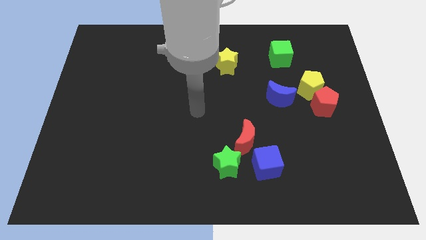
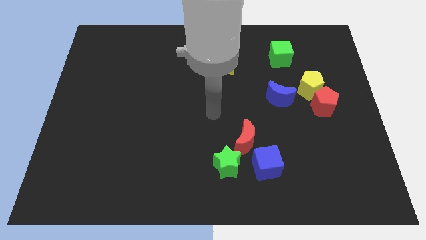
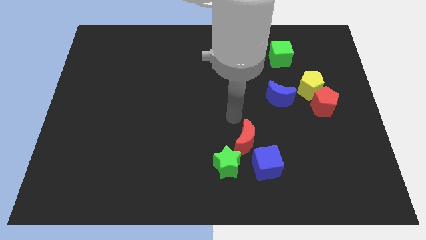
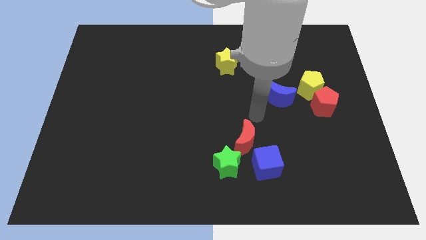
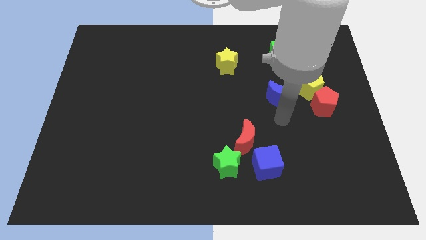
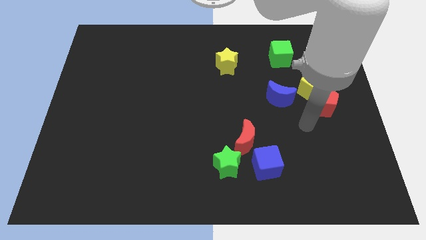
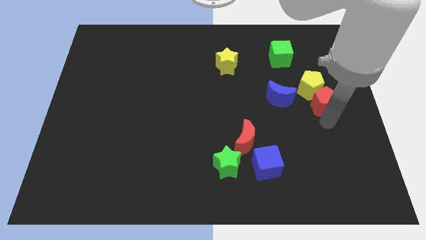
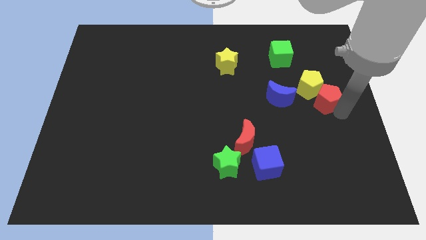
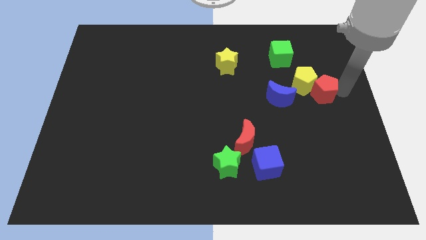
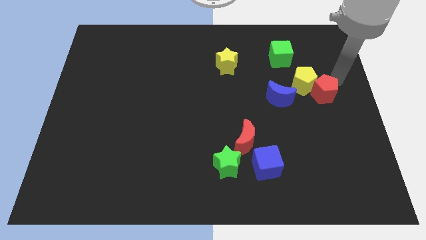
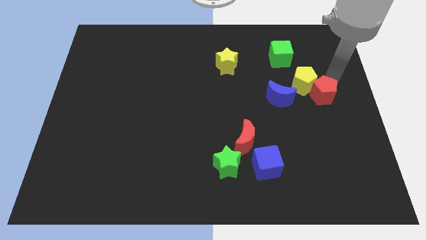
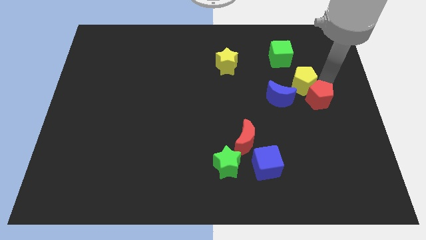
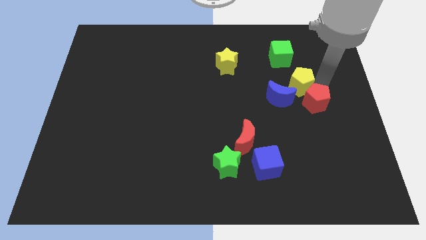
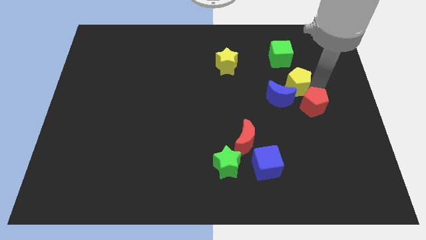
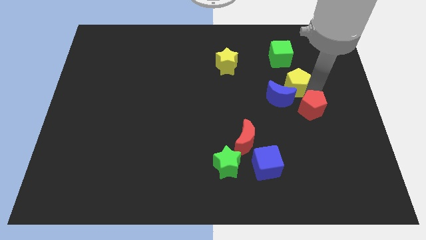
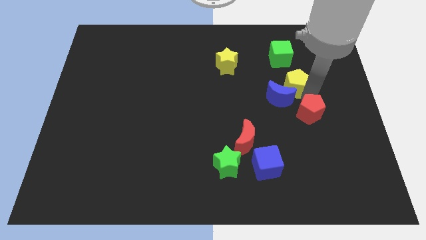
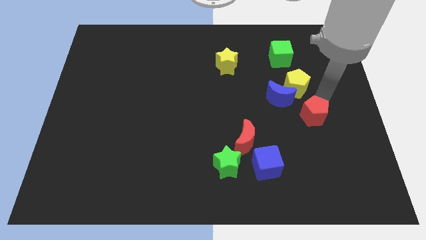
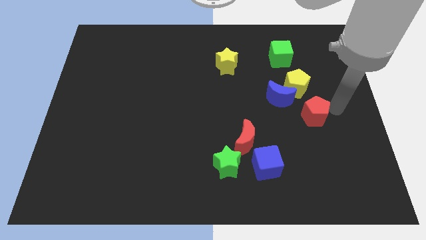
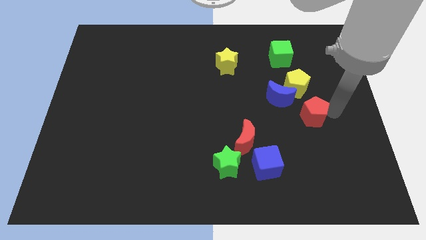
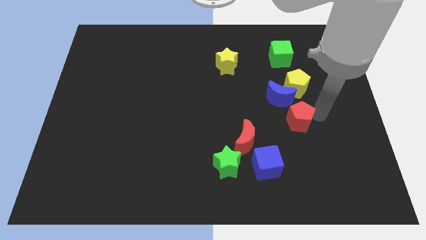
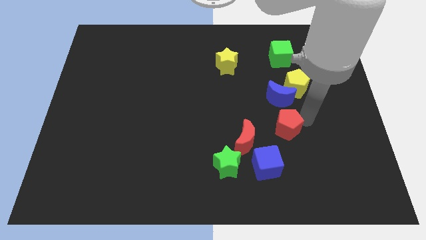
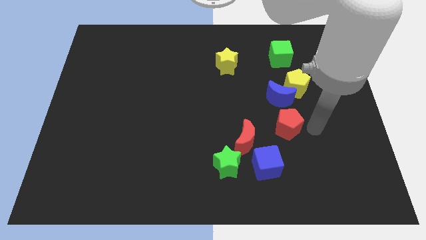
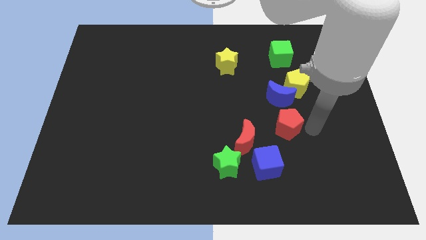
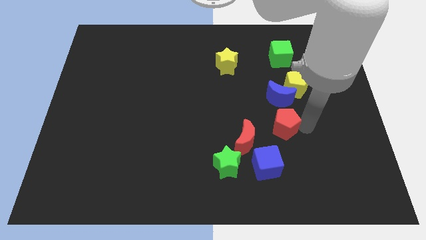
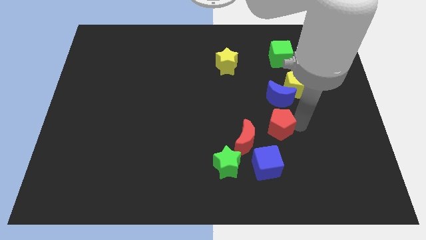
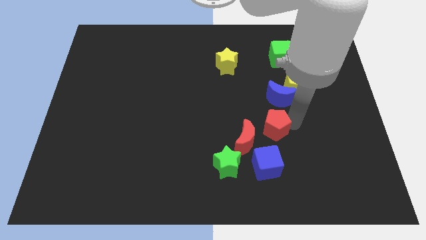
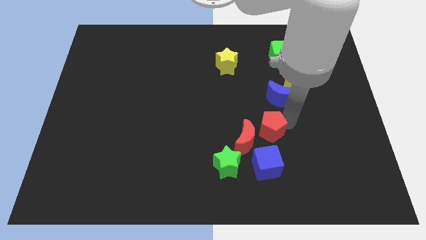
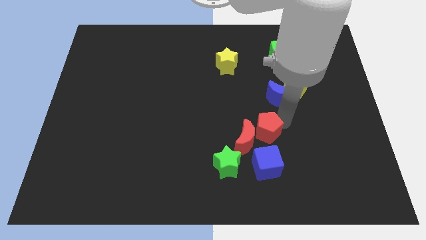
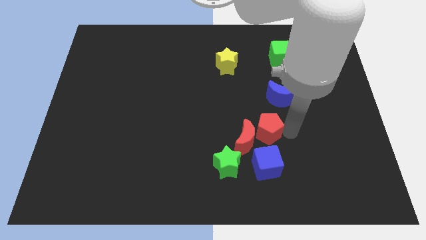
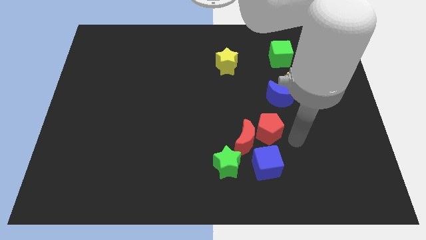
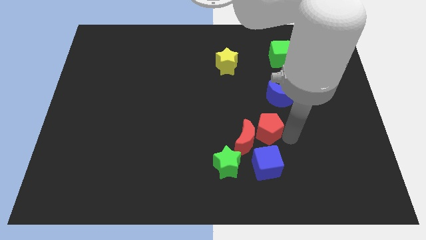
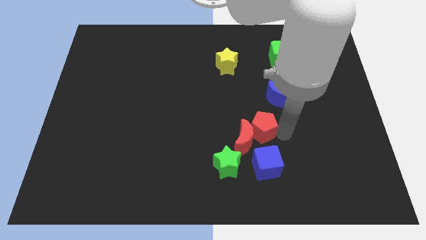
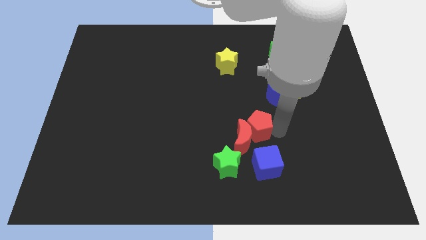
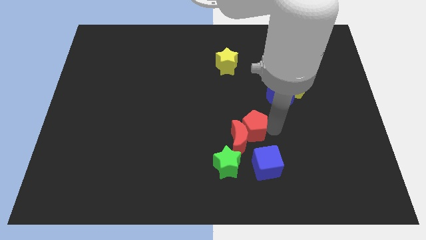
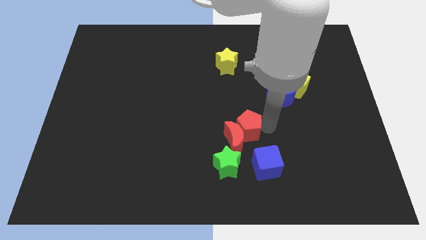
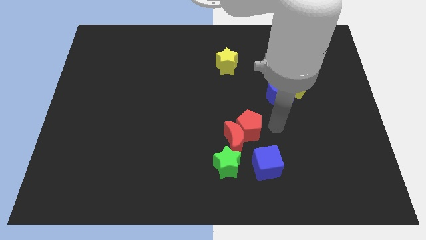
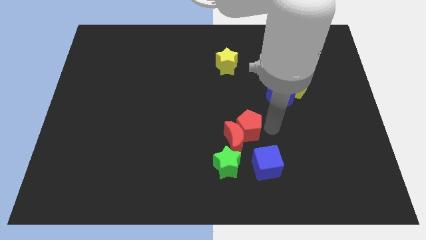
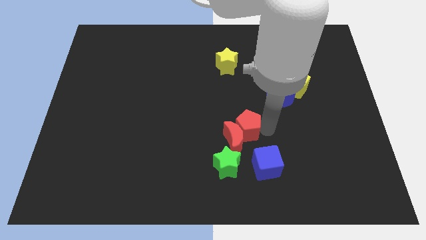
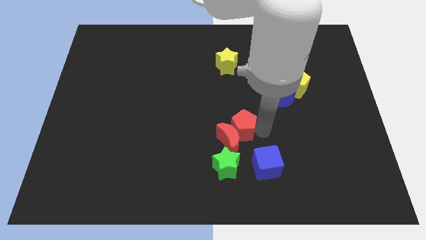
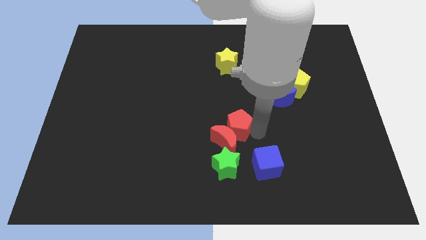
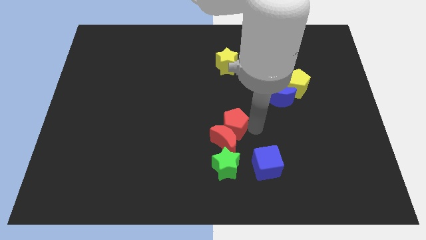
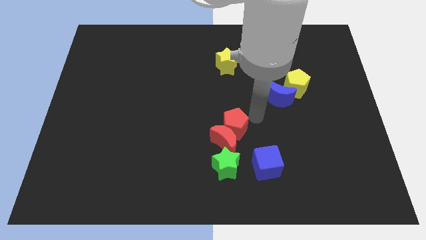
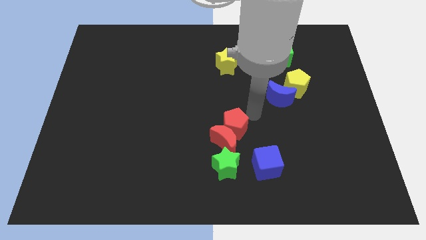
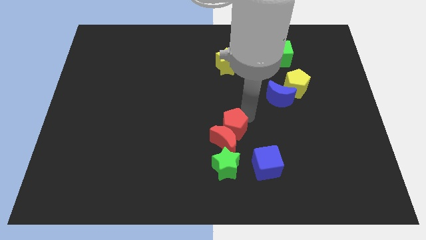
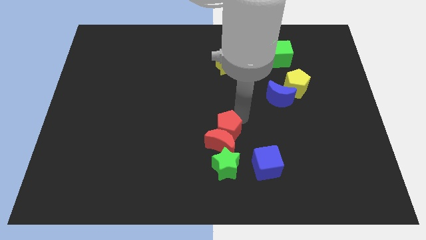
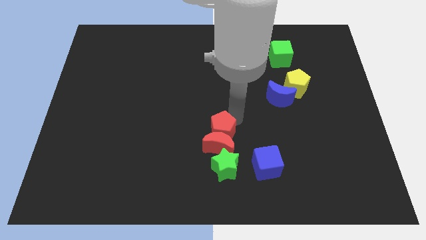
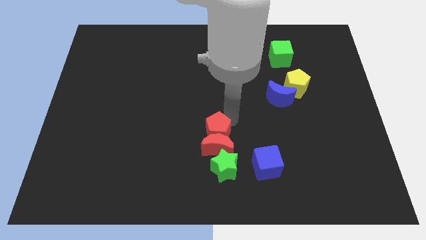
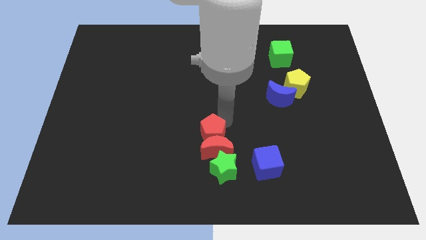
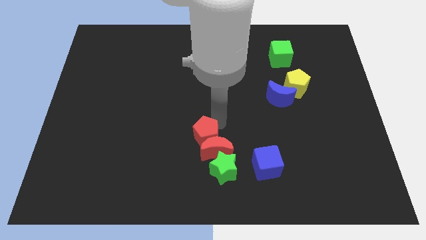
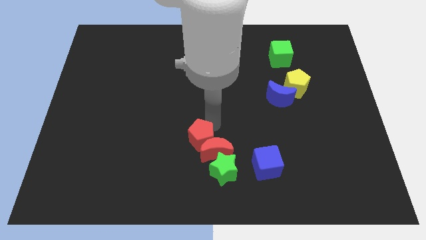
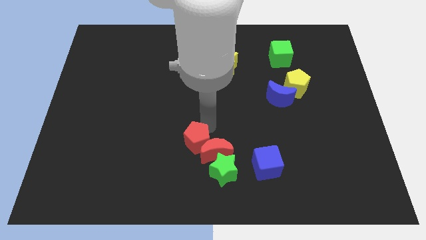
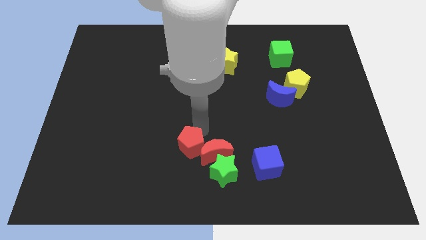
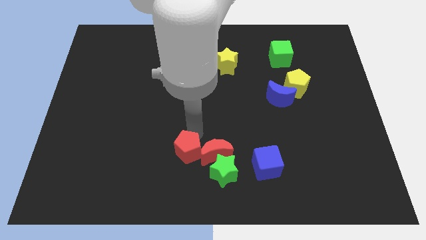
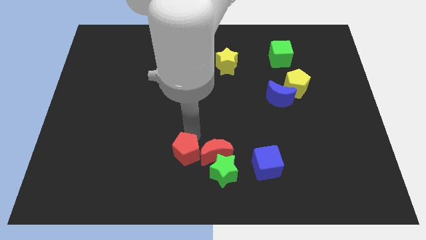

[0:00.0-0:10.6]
push the red pentagon to the left of the green star

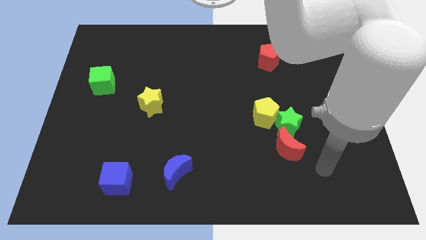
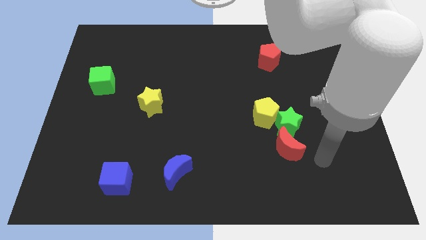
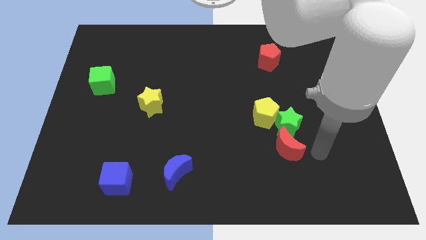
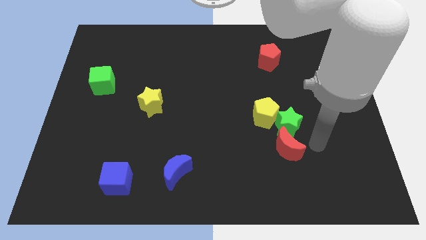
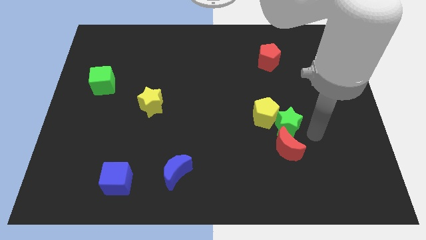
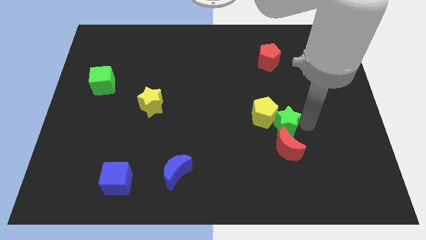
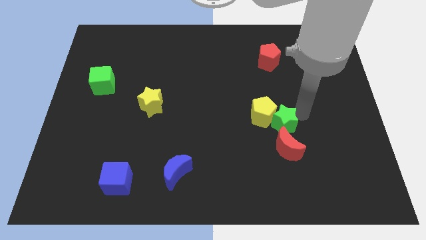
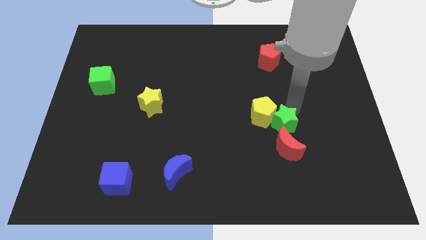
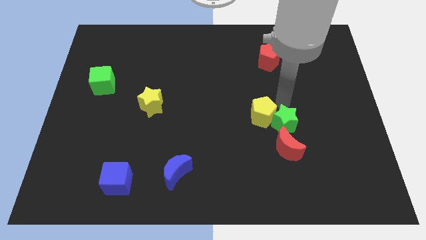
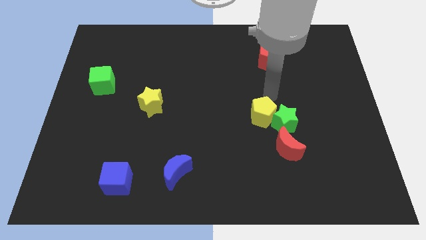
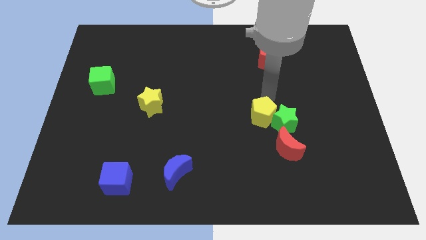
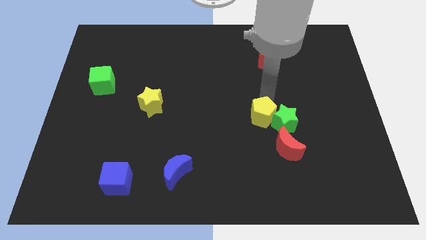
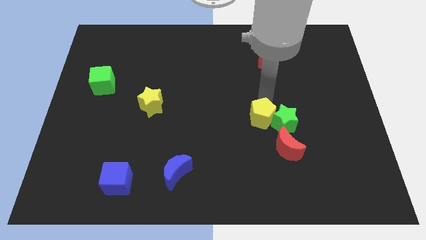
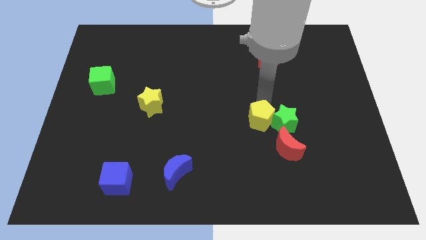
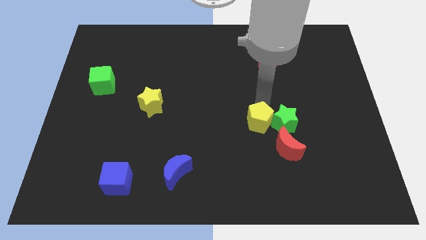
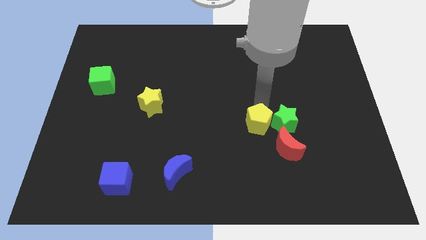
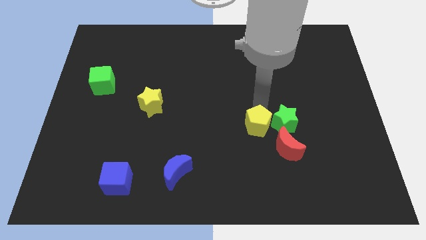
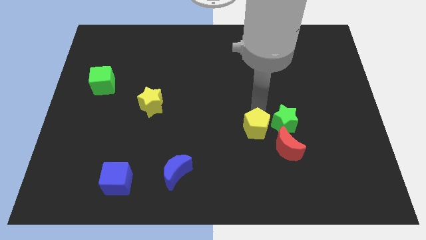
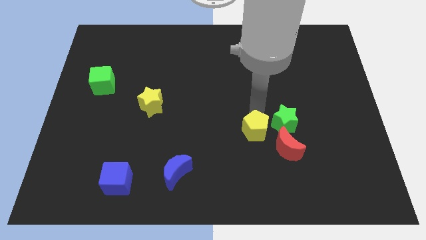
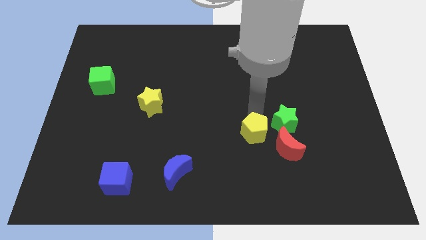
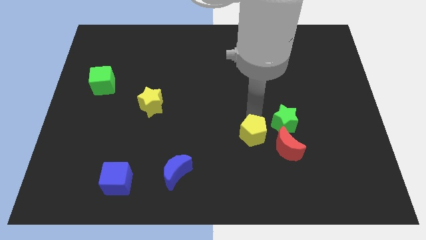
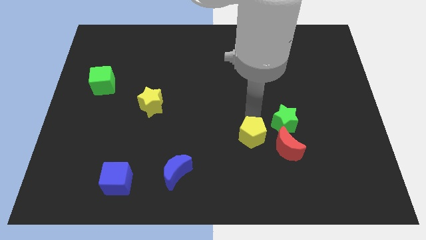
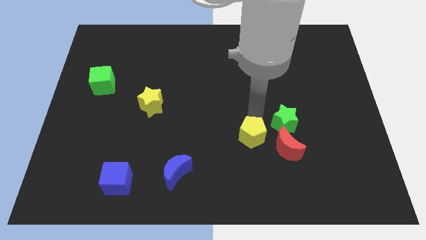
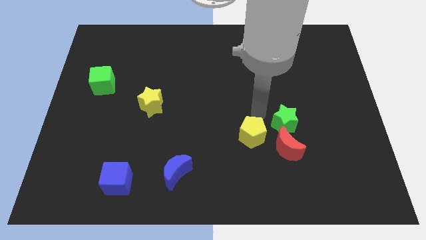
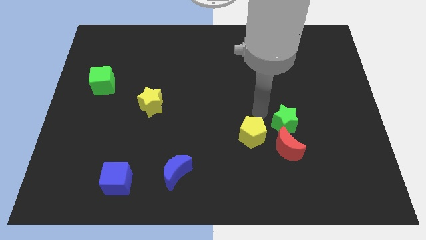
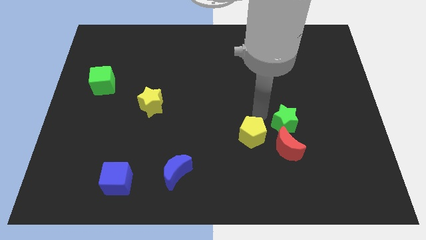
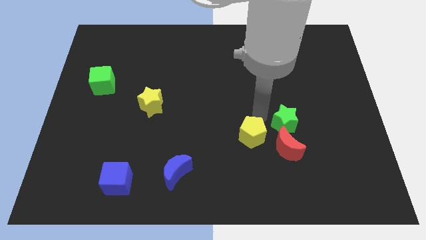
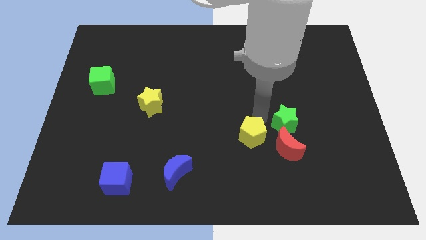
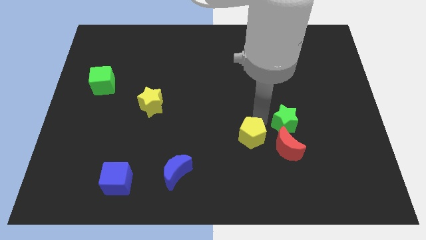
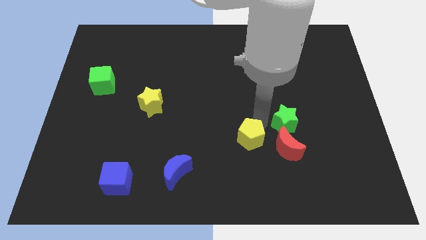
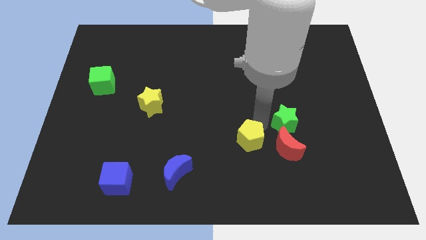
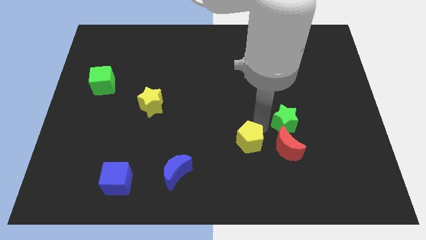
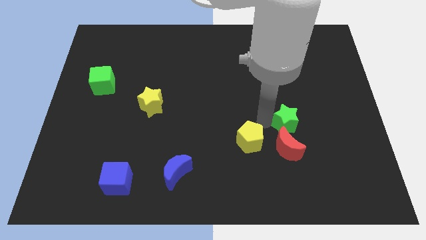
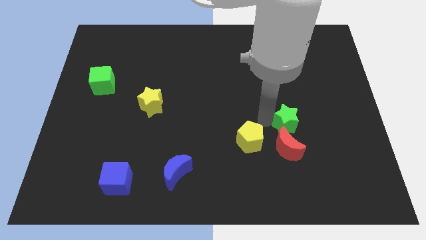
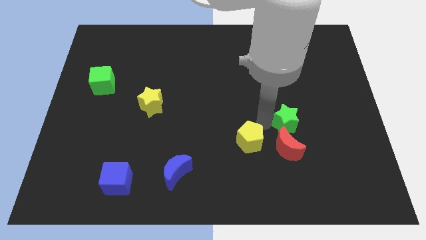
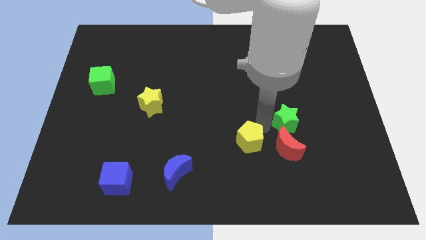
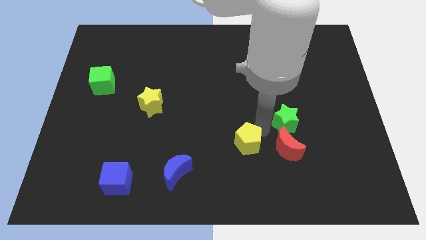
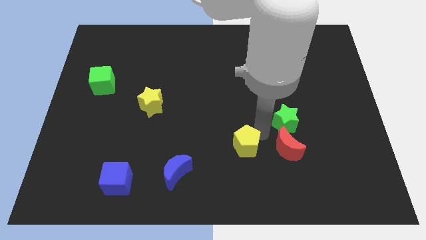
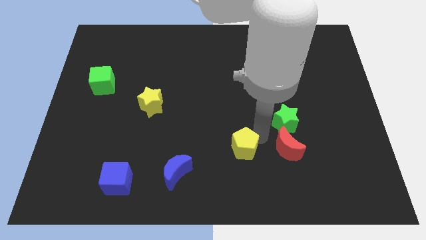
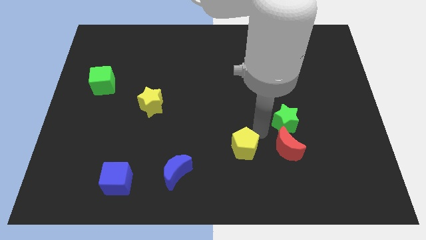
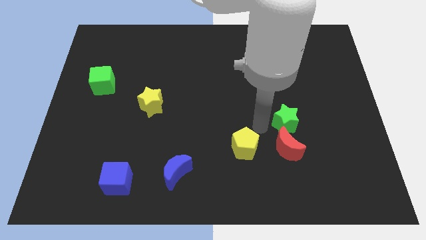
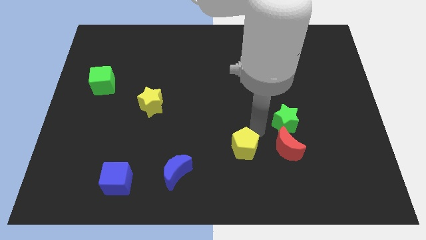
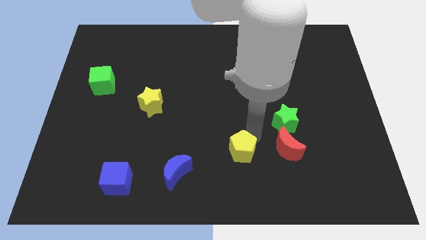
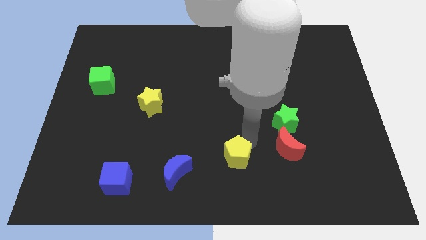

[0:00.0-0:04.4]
slide the yellow pentagon right of the blue moon
